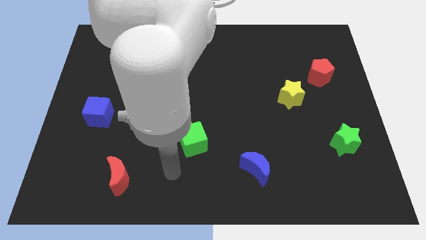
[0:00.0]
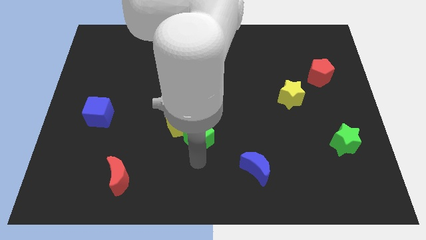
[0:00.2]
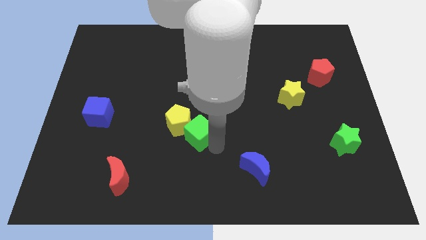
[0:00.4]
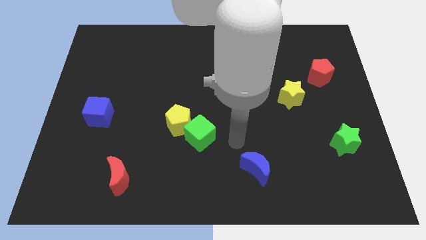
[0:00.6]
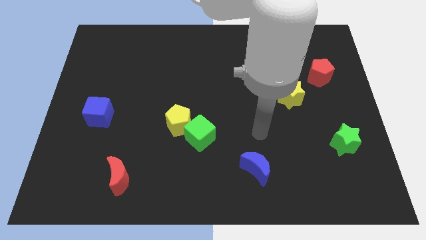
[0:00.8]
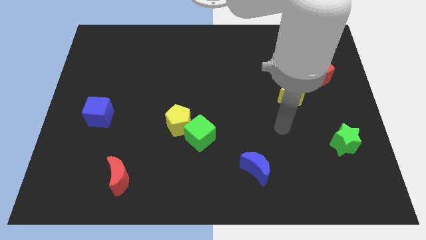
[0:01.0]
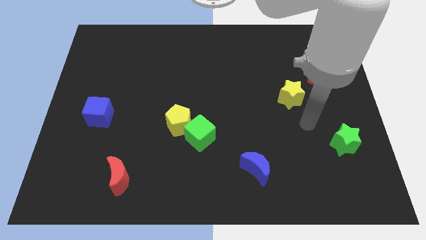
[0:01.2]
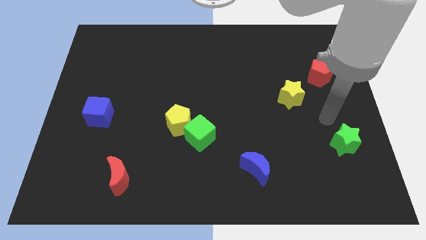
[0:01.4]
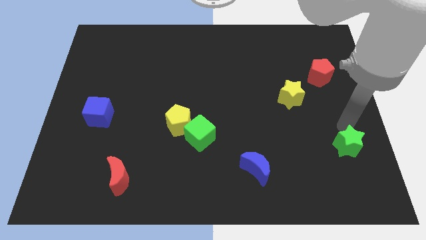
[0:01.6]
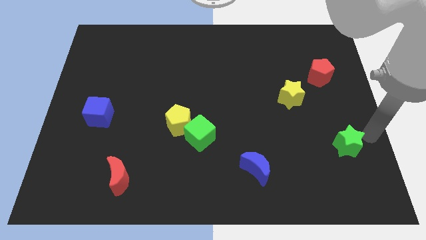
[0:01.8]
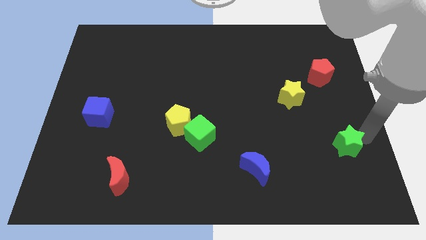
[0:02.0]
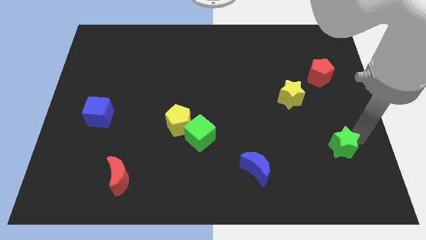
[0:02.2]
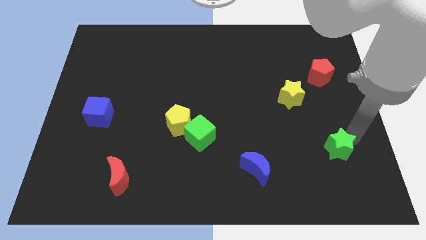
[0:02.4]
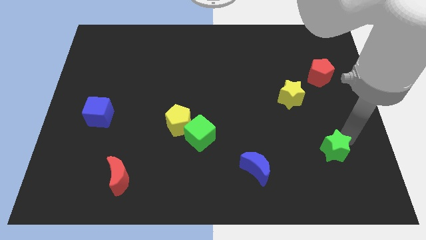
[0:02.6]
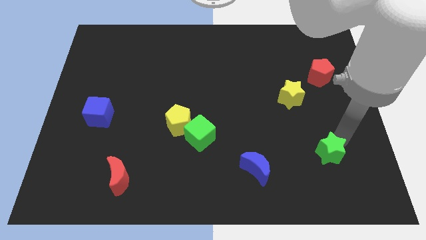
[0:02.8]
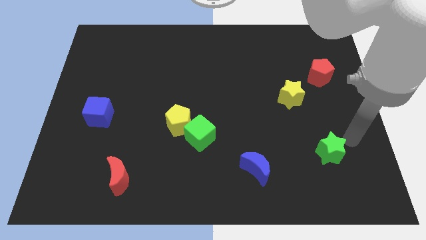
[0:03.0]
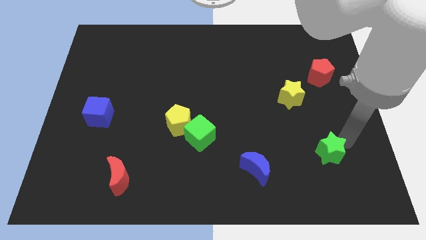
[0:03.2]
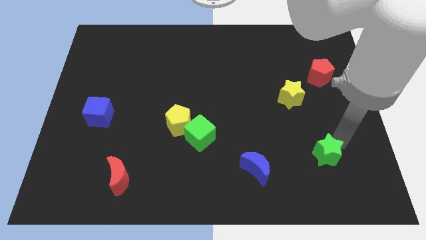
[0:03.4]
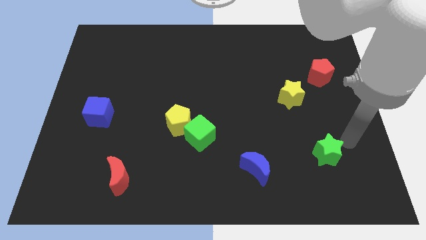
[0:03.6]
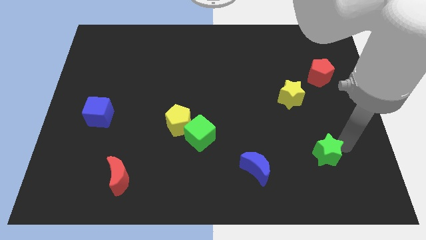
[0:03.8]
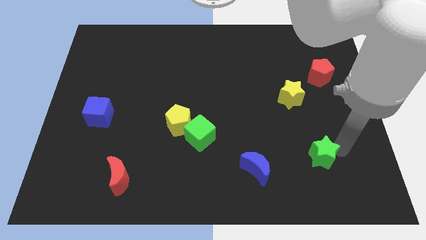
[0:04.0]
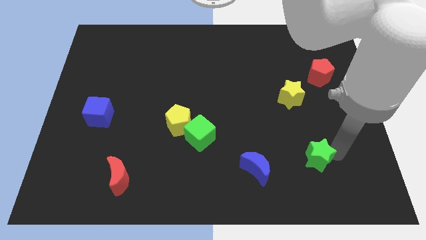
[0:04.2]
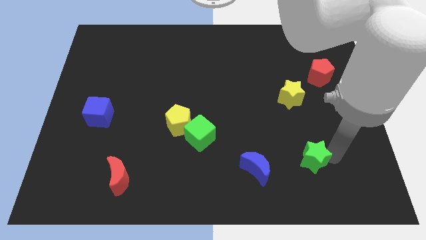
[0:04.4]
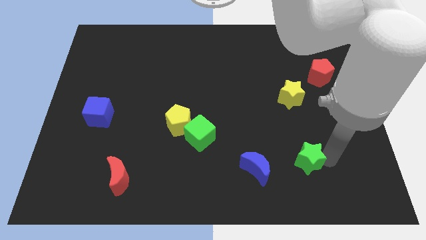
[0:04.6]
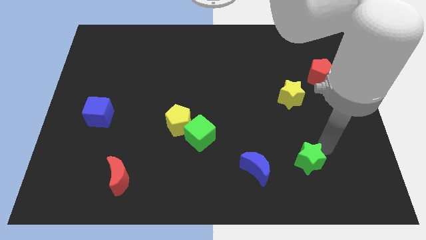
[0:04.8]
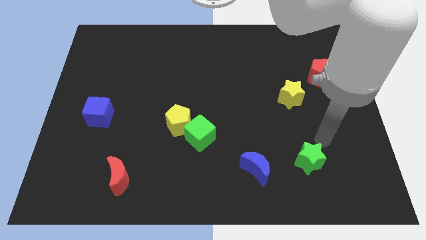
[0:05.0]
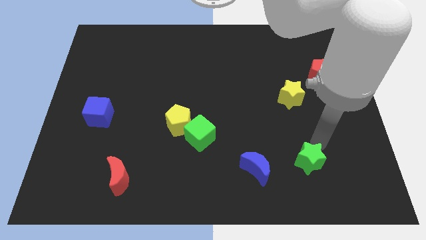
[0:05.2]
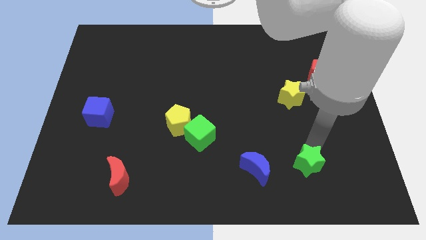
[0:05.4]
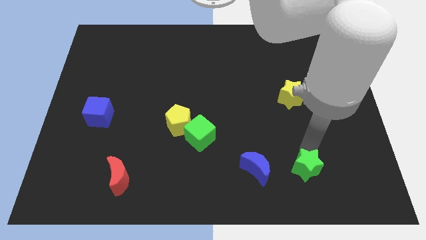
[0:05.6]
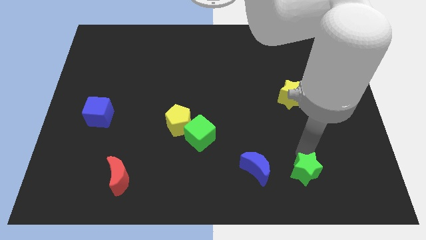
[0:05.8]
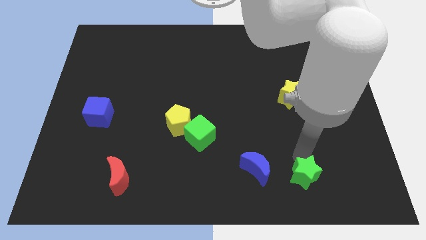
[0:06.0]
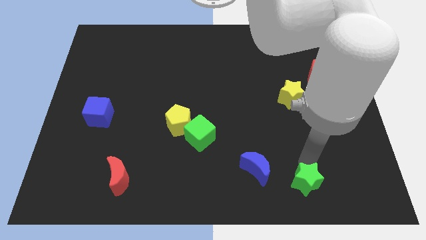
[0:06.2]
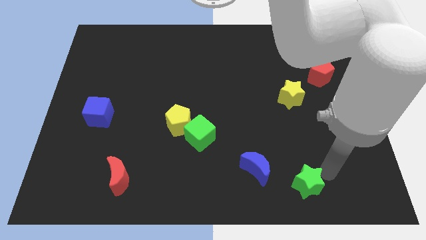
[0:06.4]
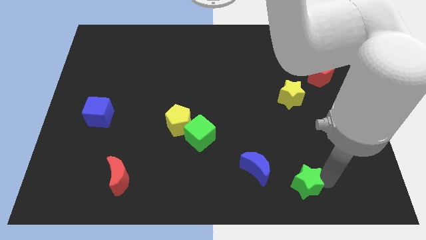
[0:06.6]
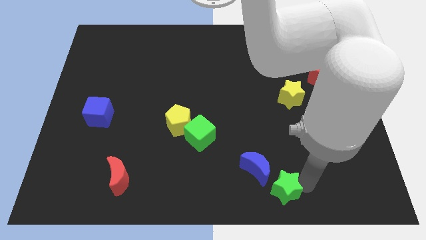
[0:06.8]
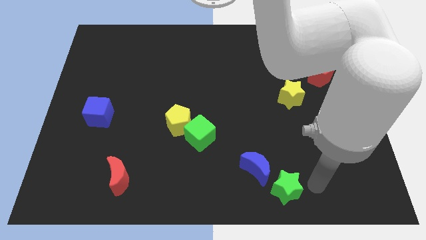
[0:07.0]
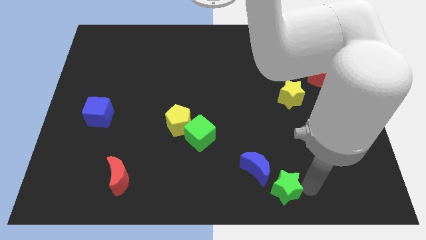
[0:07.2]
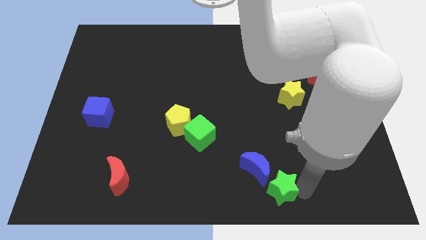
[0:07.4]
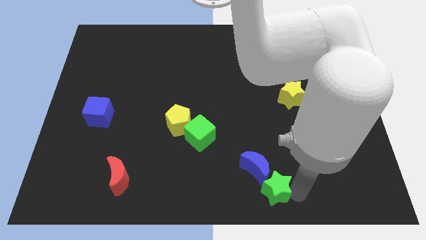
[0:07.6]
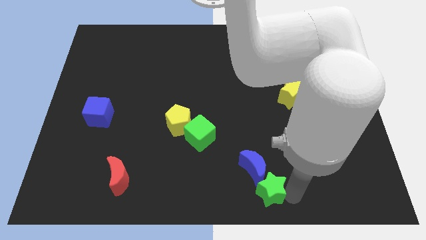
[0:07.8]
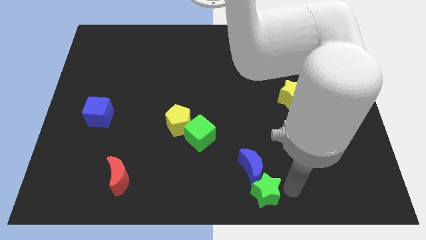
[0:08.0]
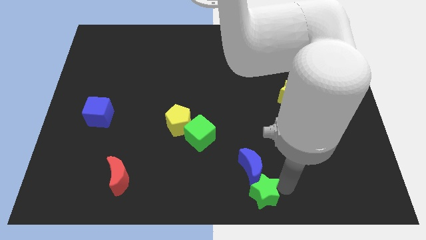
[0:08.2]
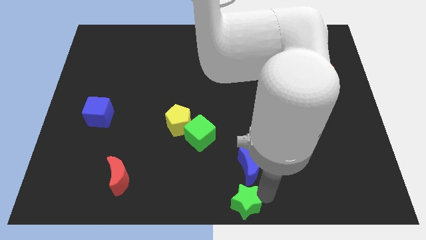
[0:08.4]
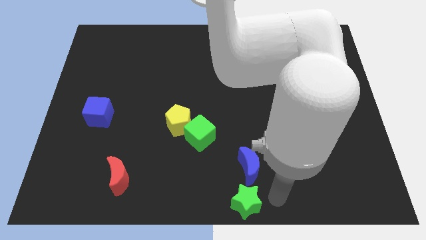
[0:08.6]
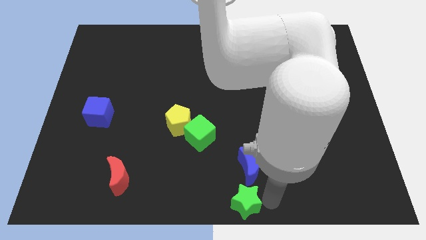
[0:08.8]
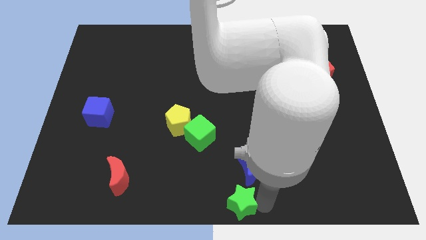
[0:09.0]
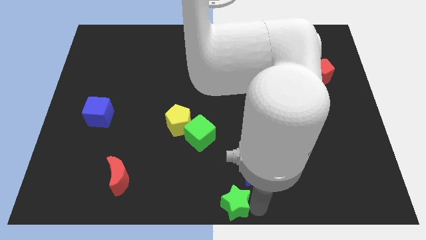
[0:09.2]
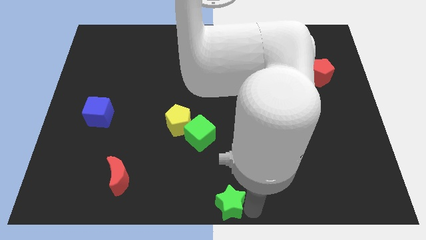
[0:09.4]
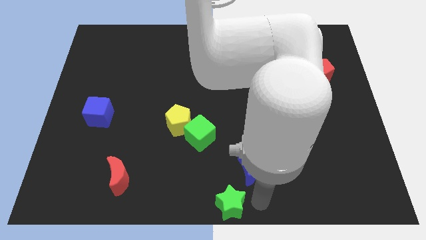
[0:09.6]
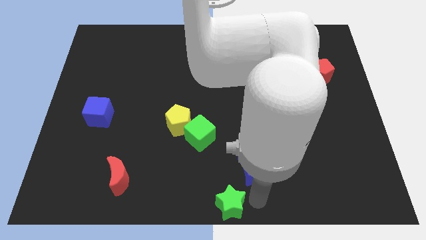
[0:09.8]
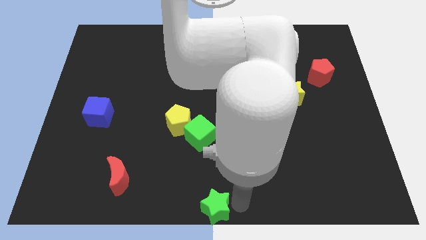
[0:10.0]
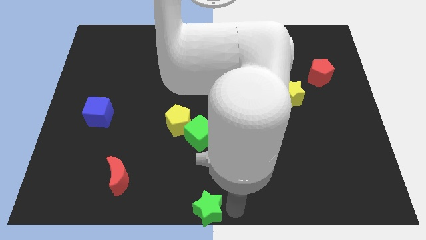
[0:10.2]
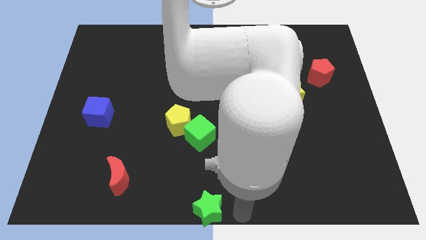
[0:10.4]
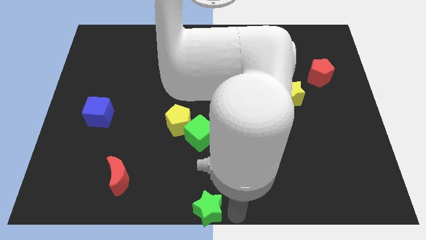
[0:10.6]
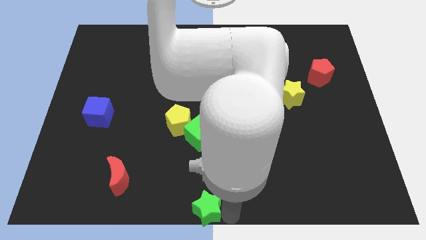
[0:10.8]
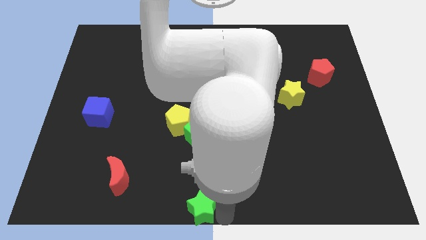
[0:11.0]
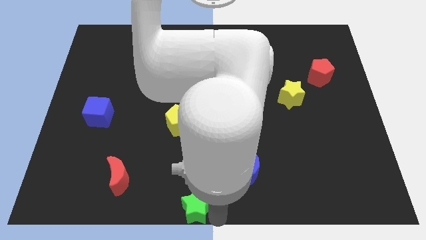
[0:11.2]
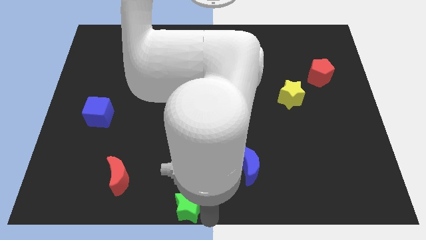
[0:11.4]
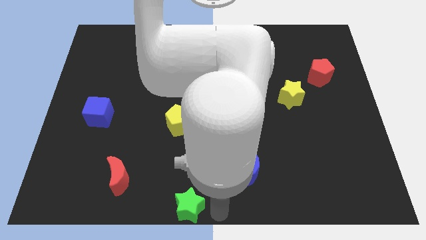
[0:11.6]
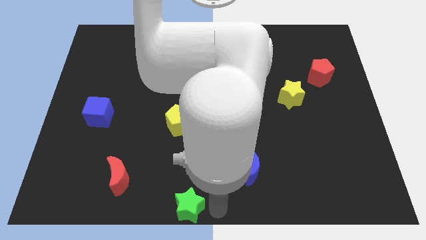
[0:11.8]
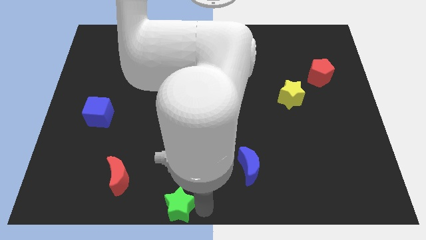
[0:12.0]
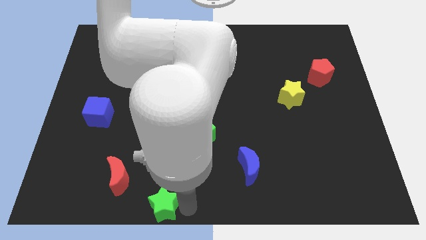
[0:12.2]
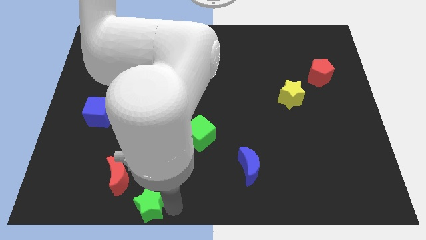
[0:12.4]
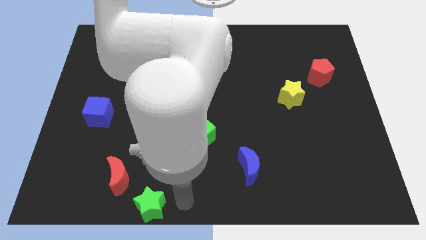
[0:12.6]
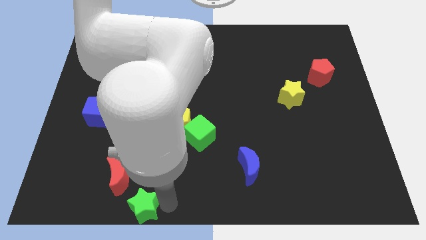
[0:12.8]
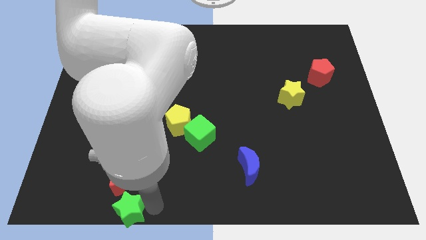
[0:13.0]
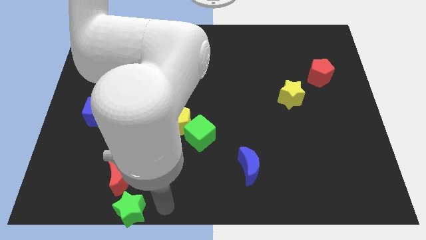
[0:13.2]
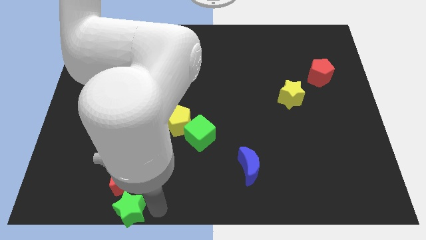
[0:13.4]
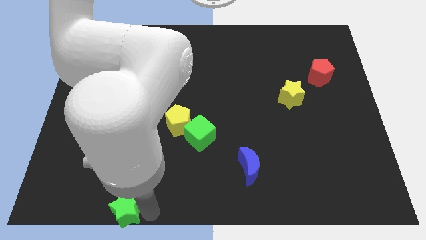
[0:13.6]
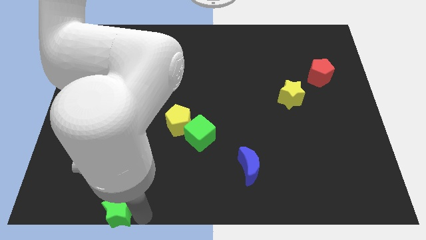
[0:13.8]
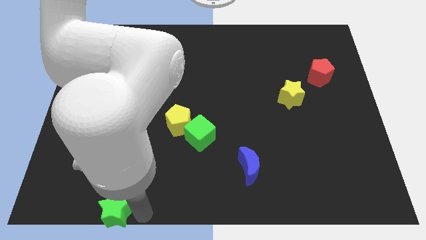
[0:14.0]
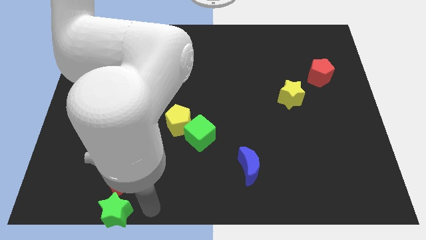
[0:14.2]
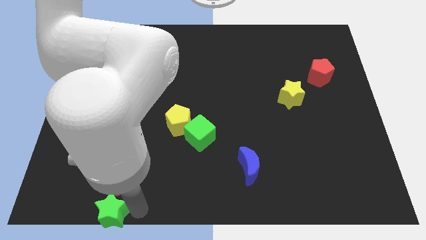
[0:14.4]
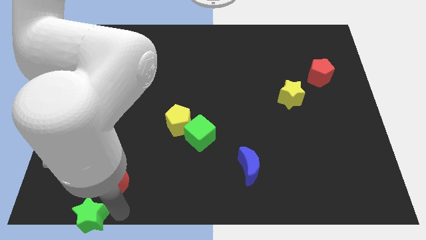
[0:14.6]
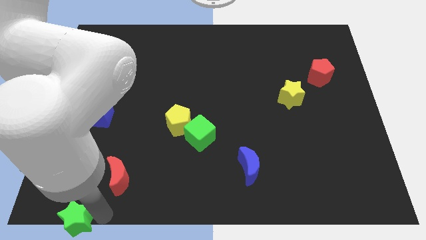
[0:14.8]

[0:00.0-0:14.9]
slide the green star to the lower left corner
